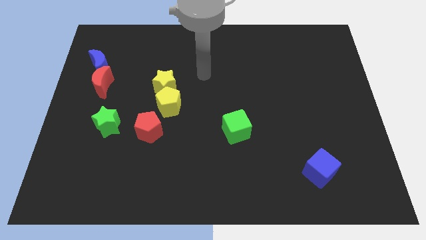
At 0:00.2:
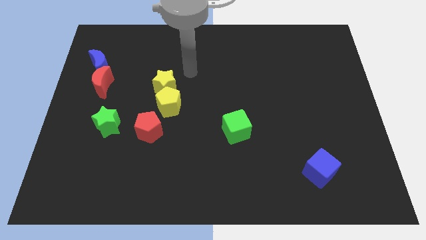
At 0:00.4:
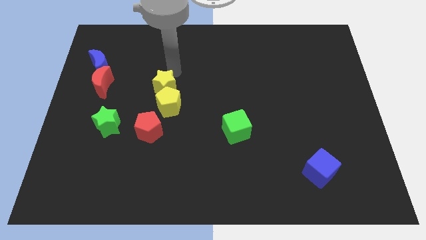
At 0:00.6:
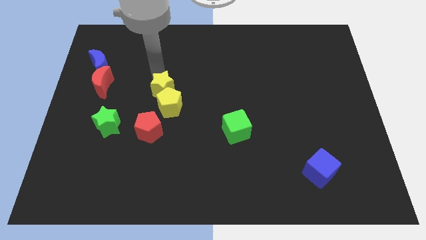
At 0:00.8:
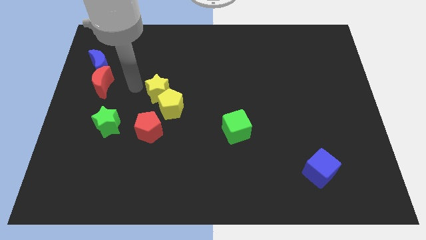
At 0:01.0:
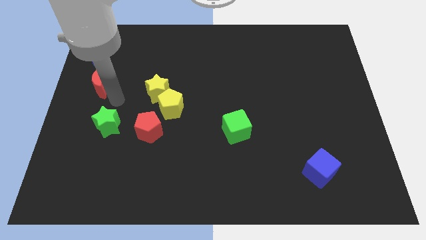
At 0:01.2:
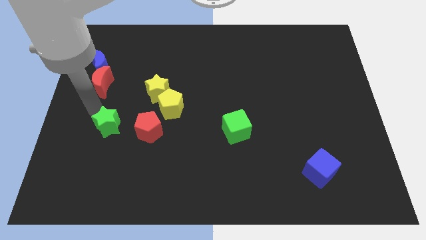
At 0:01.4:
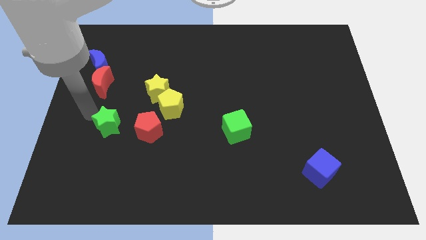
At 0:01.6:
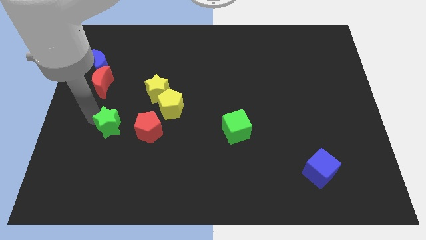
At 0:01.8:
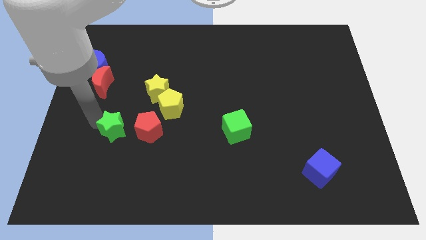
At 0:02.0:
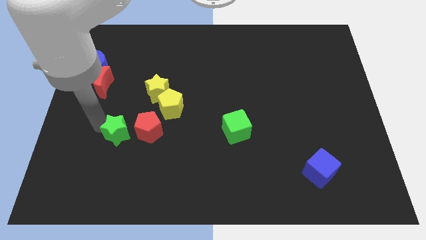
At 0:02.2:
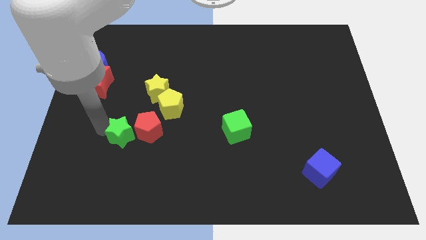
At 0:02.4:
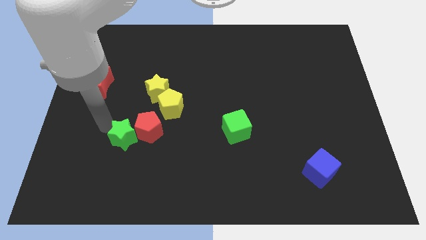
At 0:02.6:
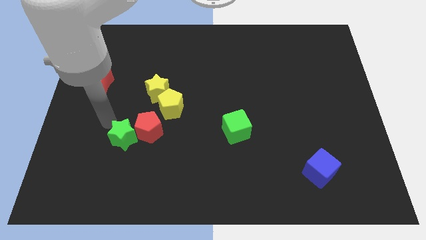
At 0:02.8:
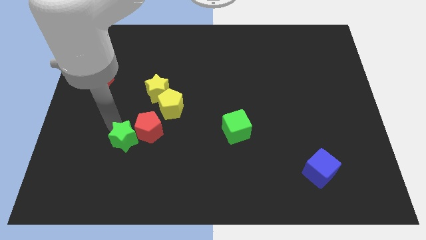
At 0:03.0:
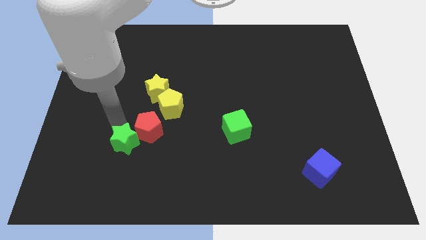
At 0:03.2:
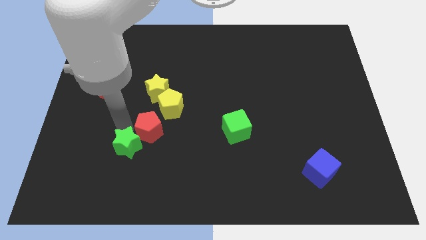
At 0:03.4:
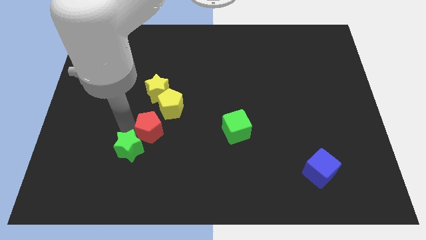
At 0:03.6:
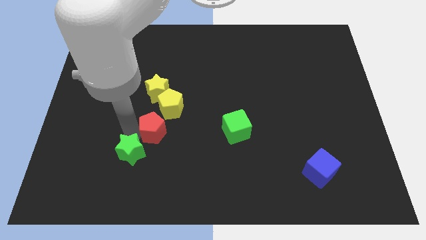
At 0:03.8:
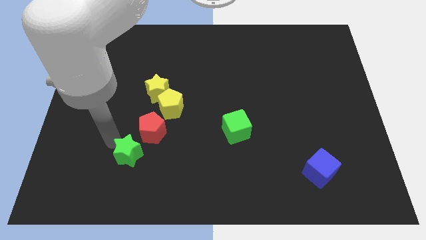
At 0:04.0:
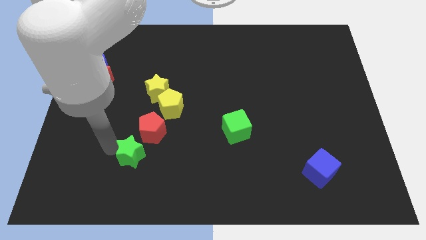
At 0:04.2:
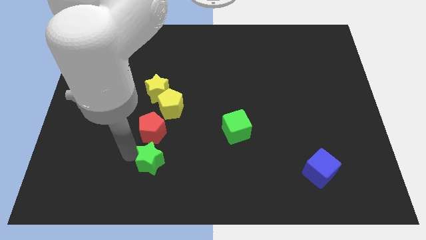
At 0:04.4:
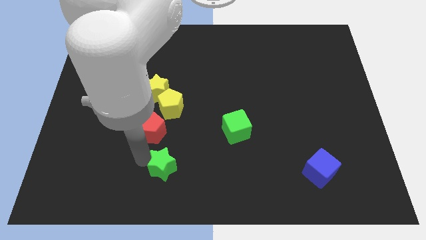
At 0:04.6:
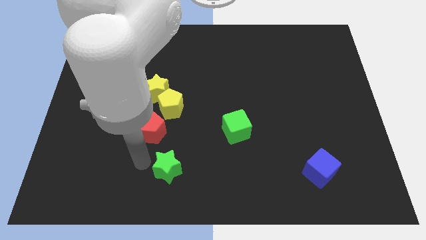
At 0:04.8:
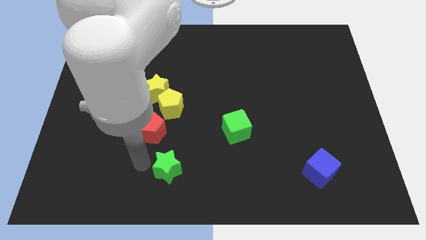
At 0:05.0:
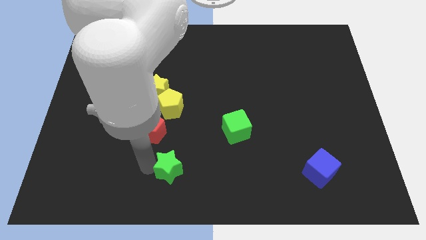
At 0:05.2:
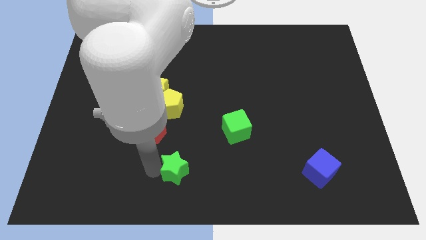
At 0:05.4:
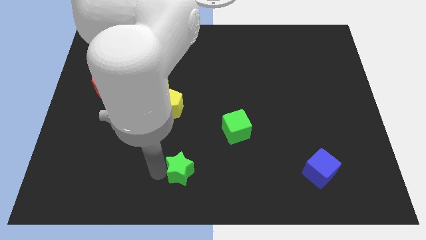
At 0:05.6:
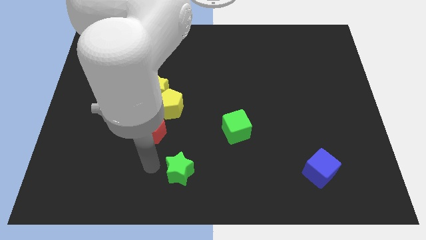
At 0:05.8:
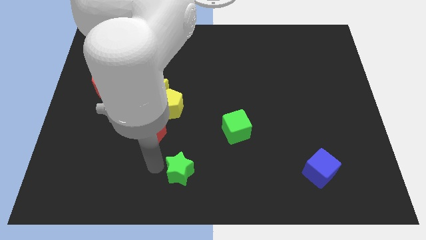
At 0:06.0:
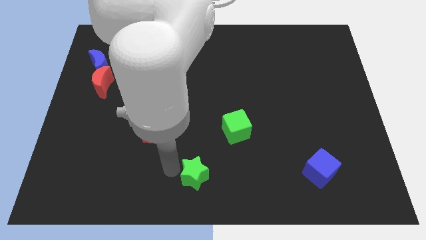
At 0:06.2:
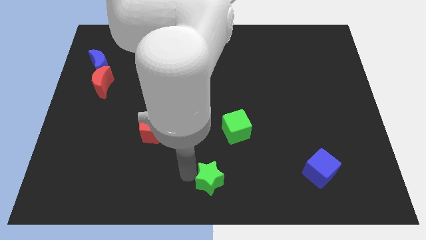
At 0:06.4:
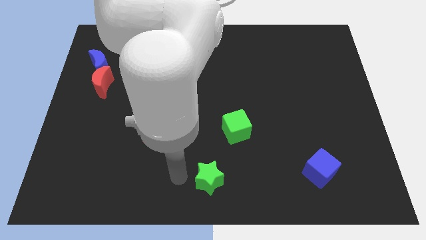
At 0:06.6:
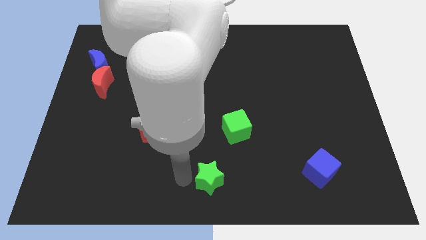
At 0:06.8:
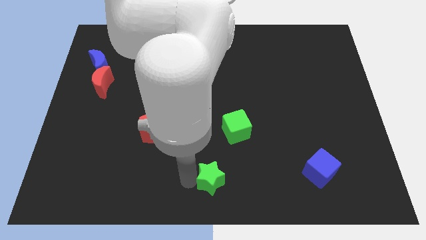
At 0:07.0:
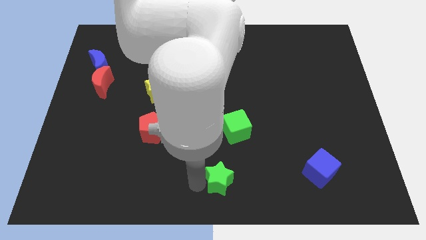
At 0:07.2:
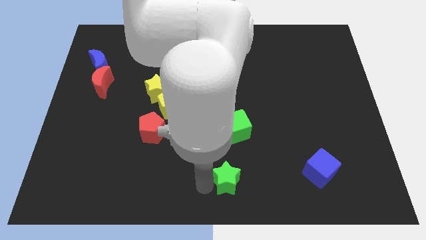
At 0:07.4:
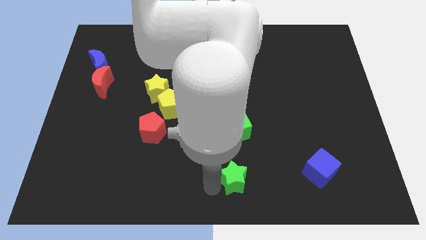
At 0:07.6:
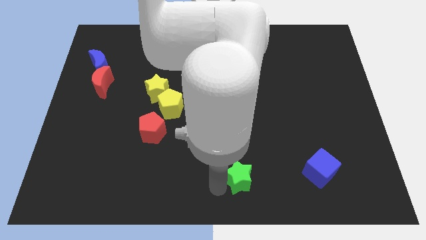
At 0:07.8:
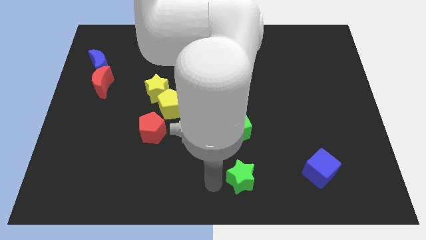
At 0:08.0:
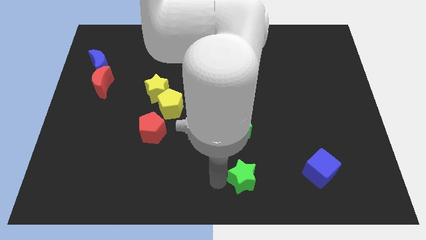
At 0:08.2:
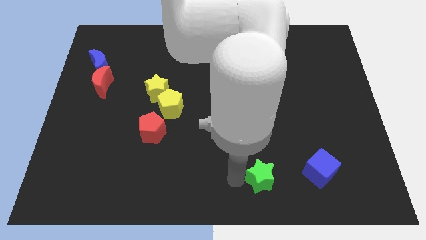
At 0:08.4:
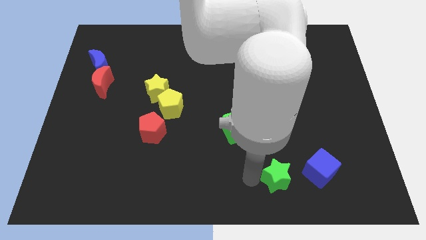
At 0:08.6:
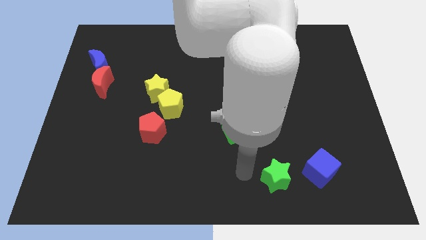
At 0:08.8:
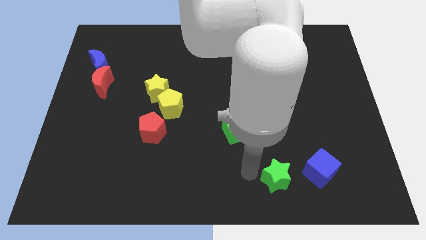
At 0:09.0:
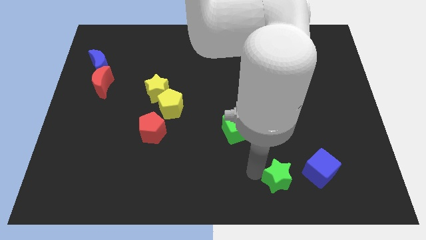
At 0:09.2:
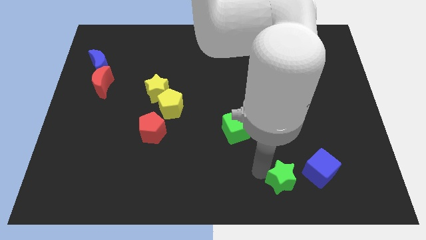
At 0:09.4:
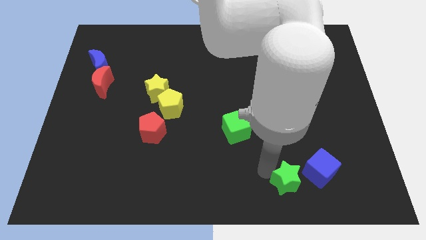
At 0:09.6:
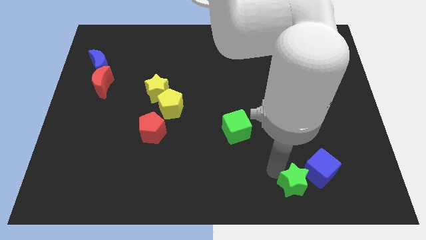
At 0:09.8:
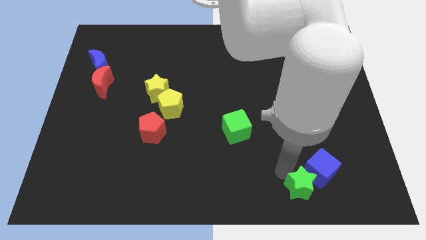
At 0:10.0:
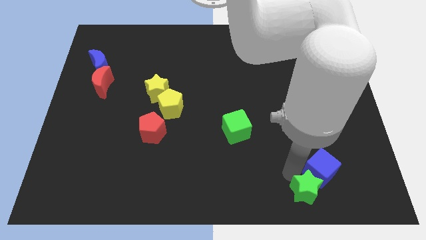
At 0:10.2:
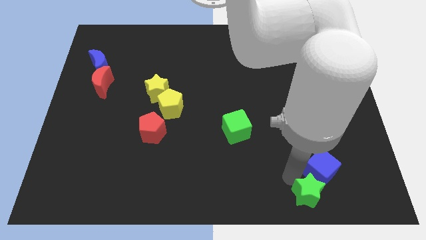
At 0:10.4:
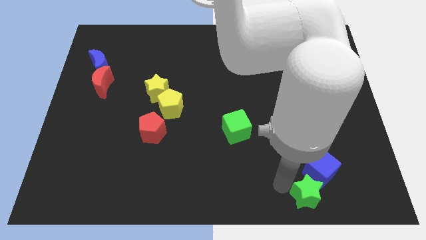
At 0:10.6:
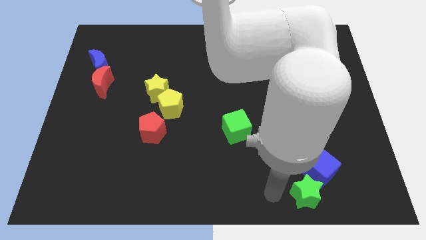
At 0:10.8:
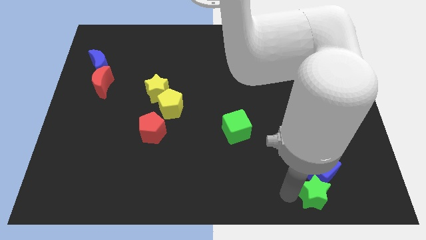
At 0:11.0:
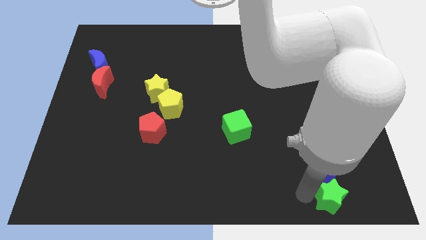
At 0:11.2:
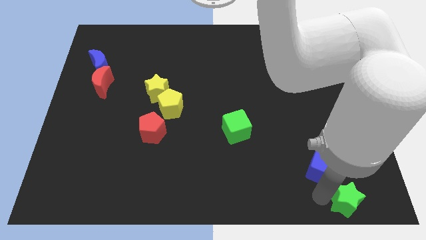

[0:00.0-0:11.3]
slide the green star to the bottom right
